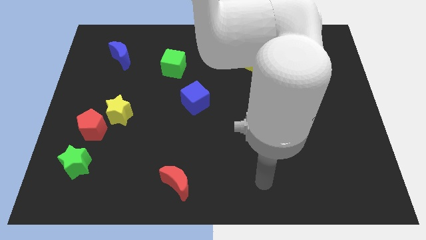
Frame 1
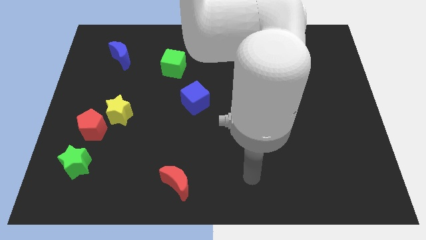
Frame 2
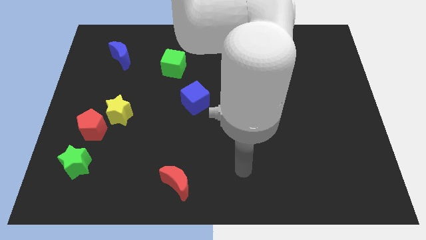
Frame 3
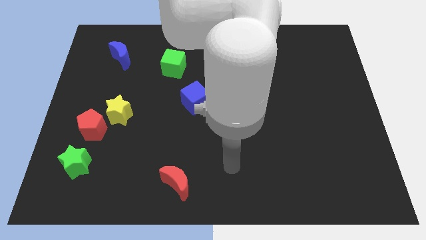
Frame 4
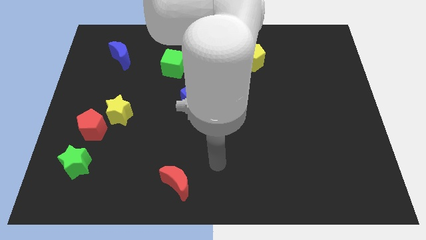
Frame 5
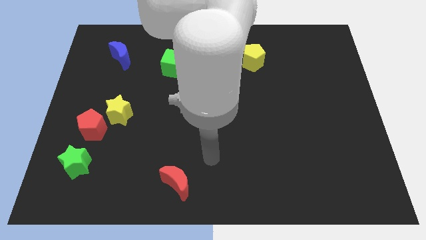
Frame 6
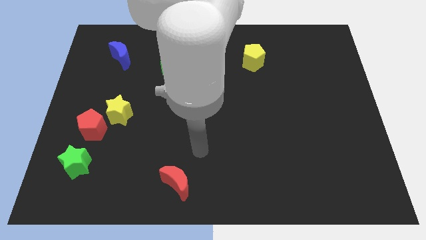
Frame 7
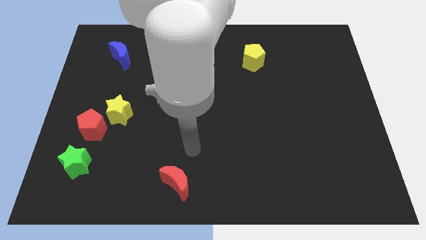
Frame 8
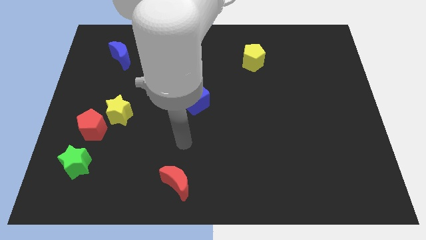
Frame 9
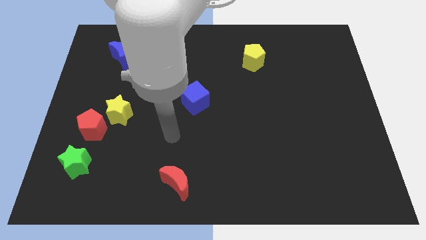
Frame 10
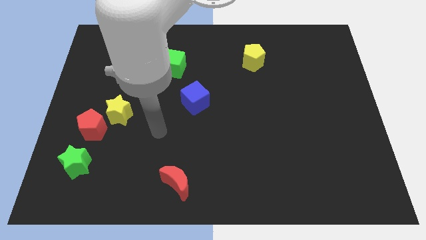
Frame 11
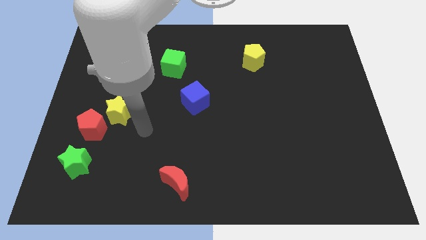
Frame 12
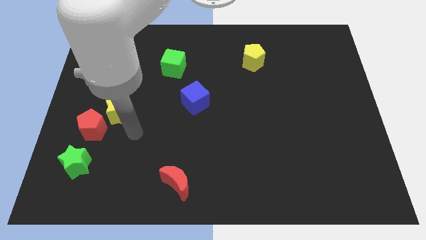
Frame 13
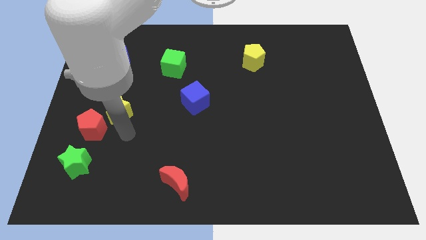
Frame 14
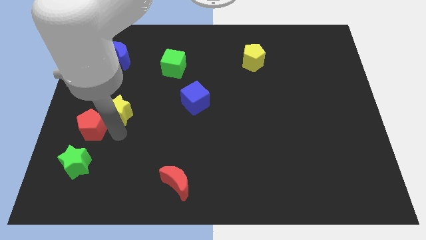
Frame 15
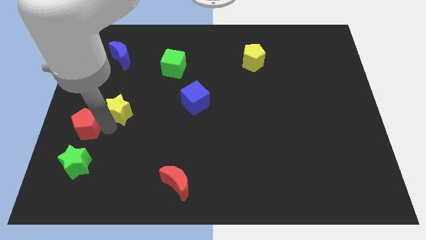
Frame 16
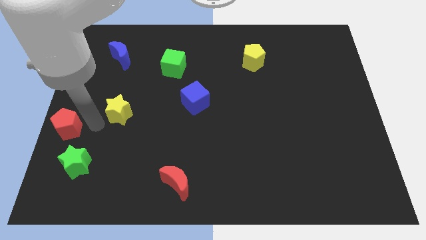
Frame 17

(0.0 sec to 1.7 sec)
pull the yellow star apart from the red pentagon

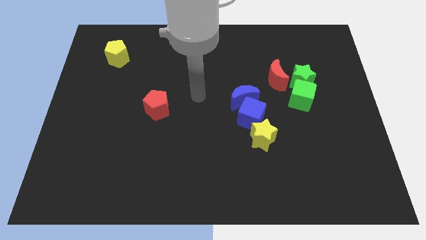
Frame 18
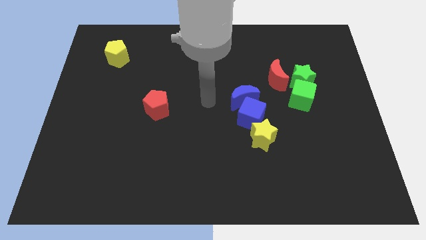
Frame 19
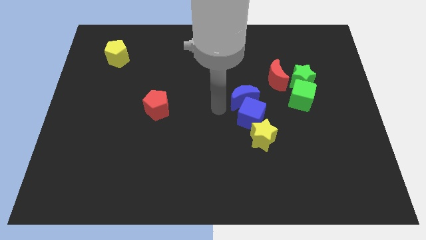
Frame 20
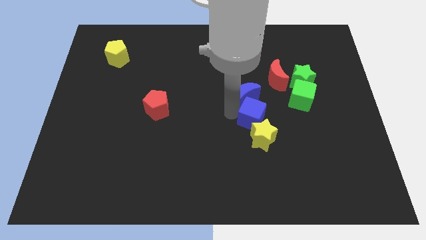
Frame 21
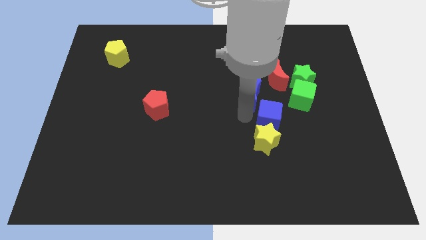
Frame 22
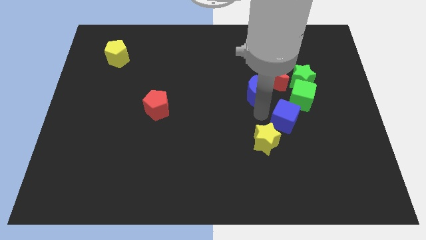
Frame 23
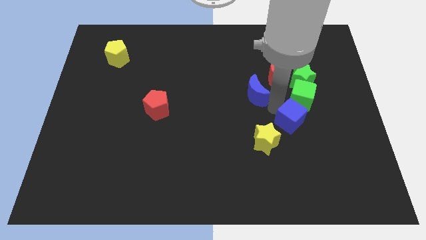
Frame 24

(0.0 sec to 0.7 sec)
pull the blue moon apart from the blue cube

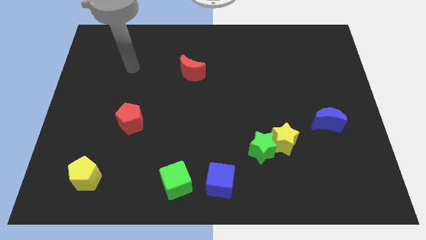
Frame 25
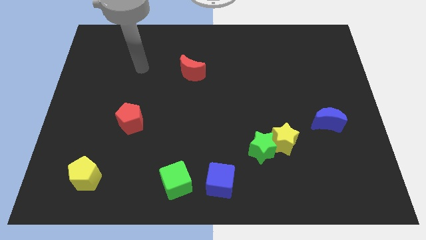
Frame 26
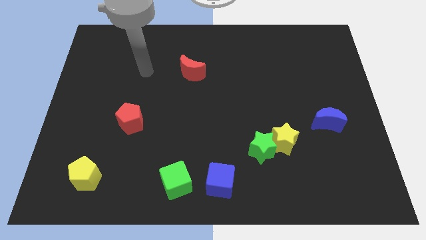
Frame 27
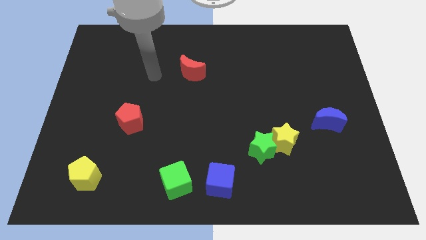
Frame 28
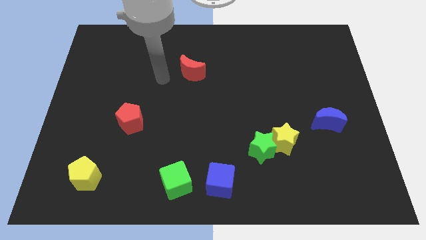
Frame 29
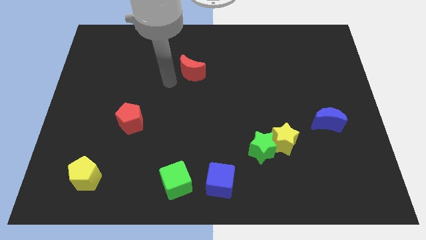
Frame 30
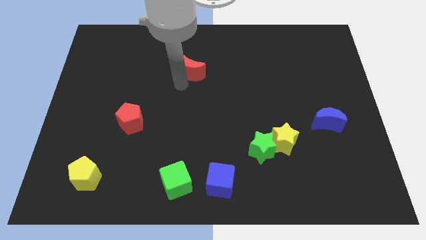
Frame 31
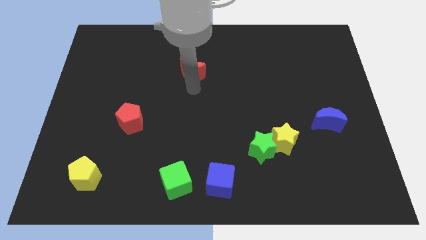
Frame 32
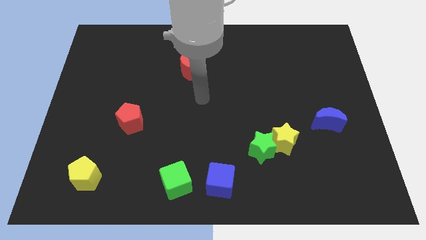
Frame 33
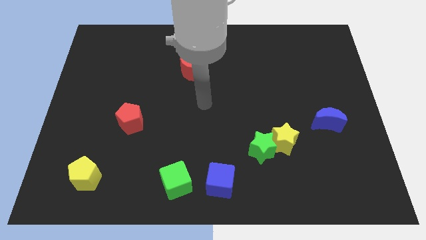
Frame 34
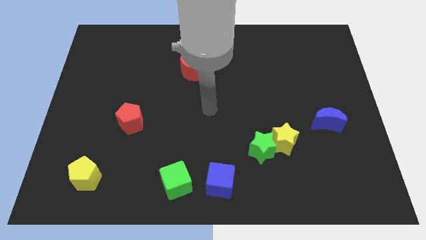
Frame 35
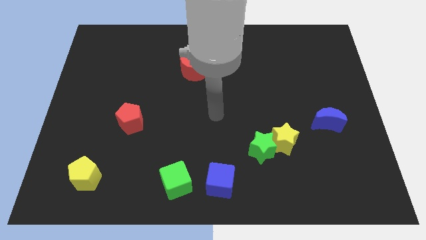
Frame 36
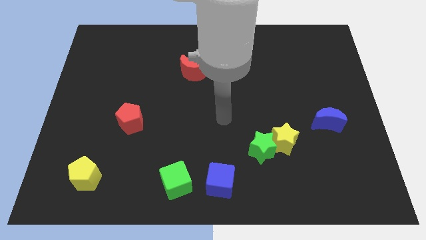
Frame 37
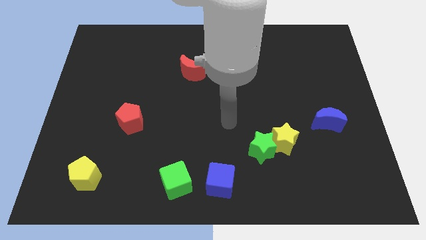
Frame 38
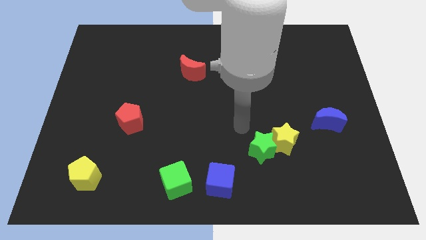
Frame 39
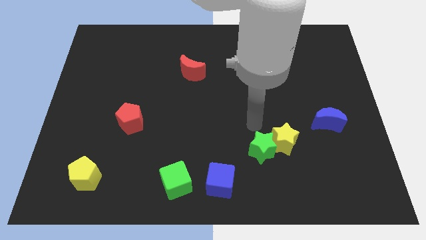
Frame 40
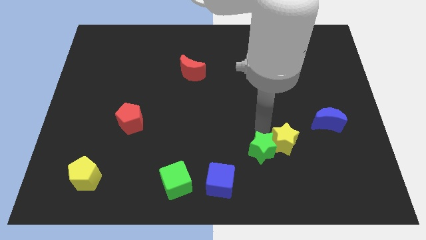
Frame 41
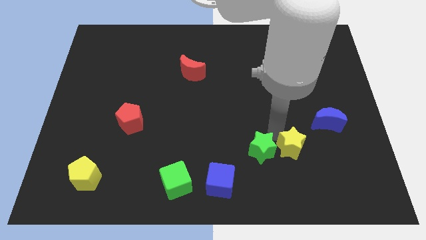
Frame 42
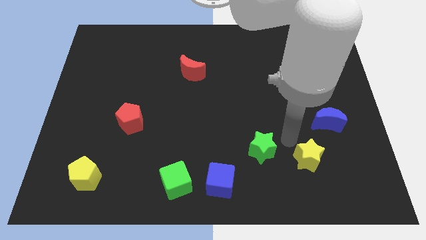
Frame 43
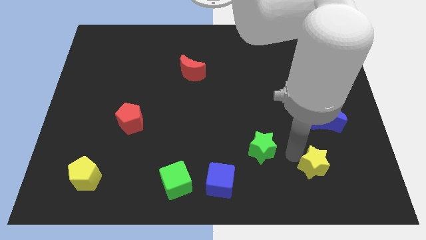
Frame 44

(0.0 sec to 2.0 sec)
move the green star away from the yellow star

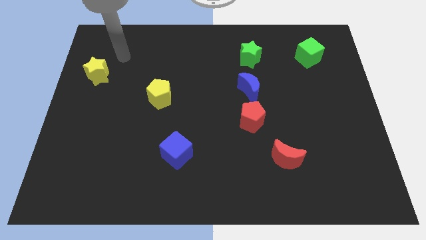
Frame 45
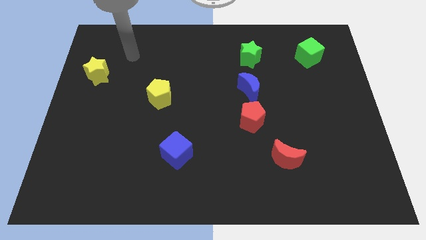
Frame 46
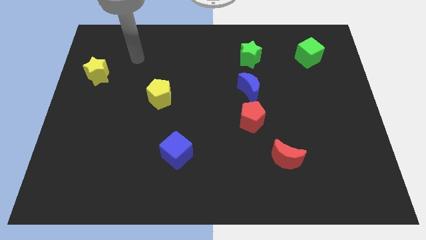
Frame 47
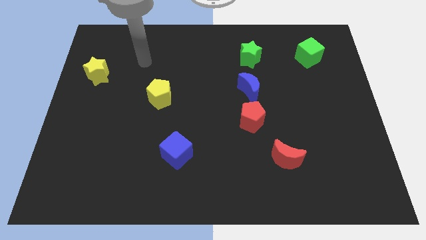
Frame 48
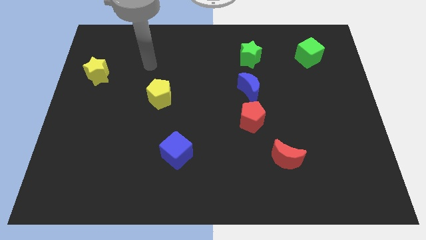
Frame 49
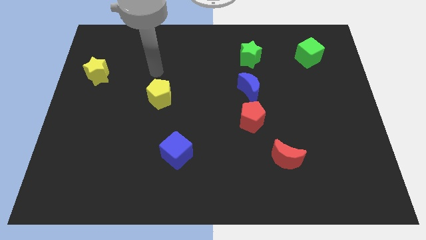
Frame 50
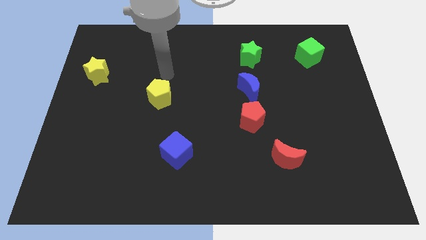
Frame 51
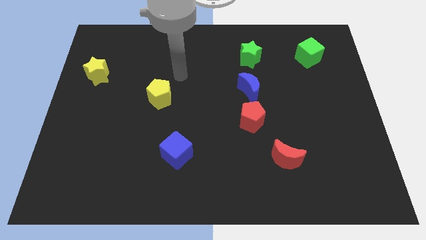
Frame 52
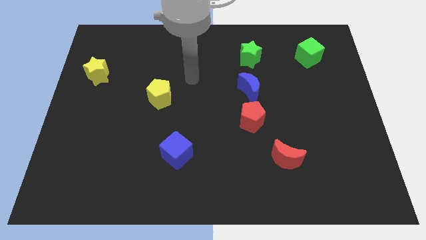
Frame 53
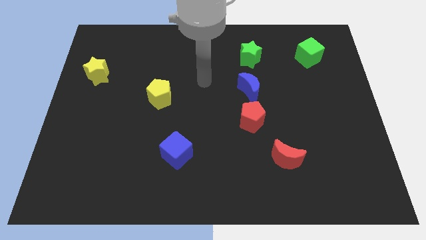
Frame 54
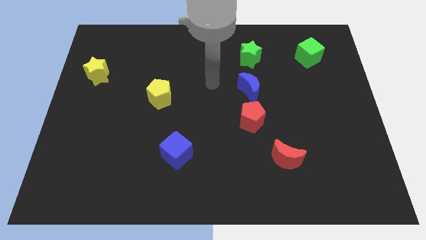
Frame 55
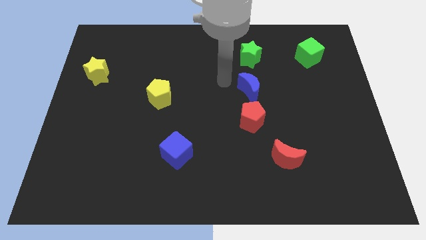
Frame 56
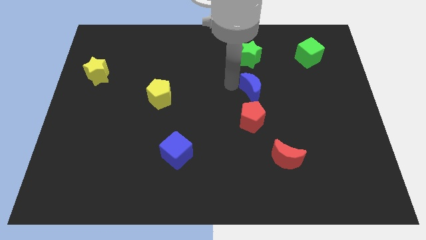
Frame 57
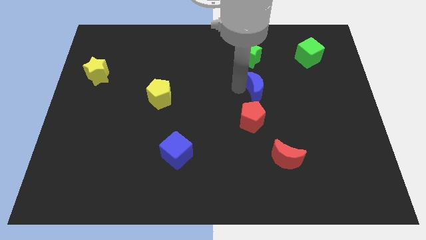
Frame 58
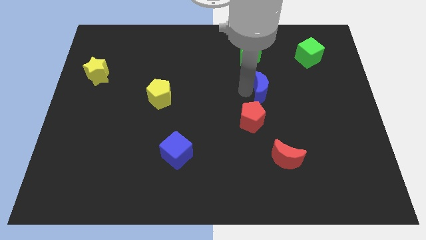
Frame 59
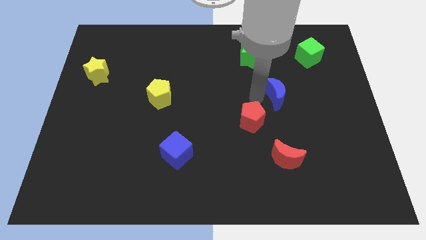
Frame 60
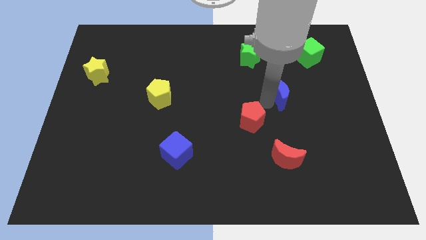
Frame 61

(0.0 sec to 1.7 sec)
move the red pentagon away from the blue moon

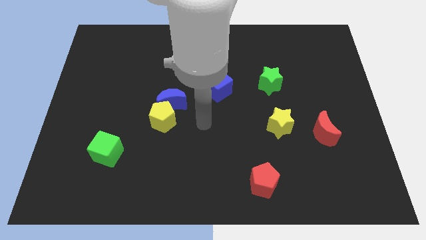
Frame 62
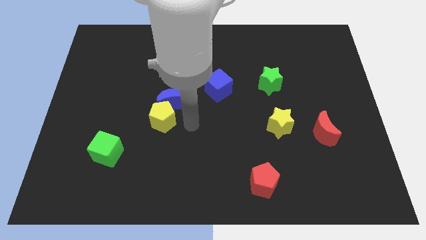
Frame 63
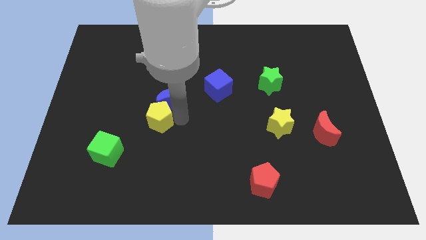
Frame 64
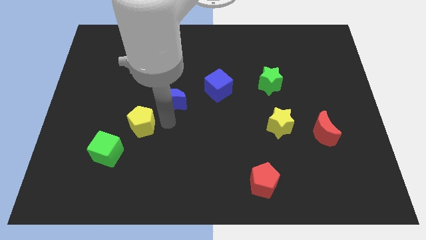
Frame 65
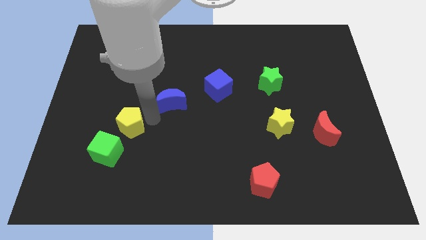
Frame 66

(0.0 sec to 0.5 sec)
separate the blue moon from the yellow pentagon

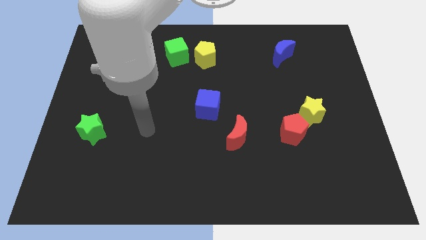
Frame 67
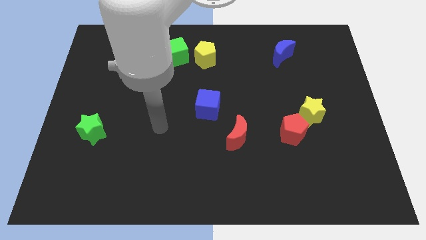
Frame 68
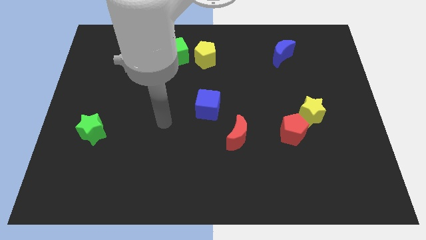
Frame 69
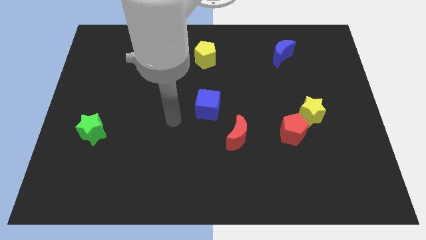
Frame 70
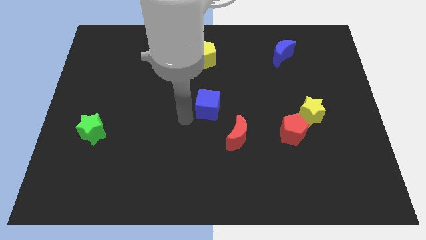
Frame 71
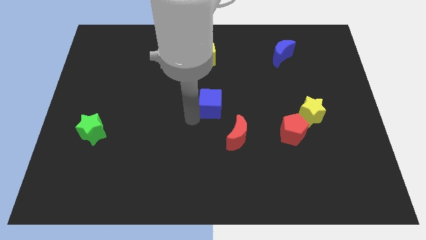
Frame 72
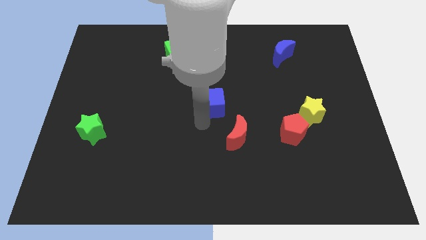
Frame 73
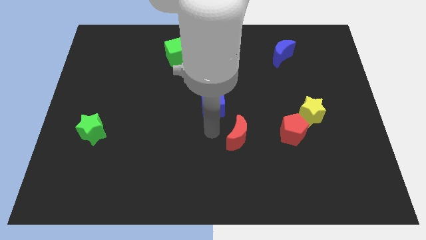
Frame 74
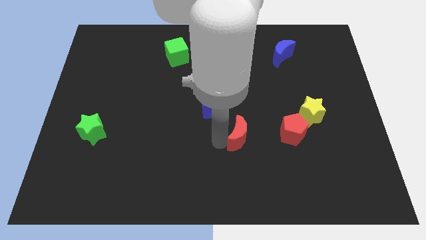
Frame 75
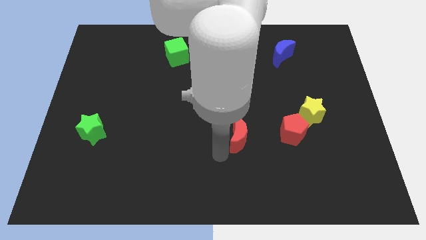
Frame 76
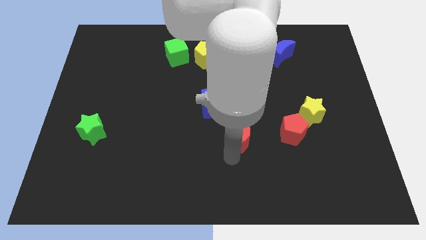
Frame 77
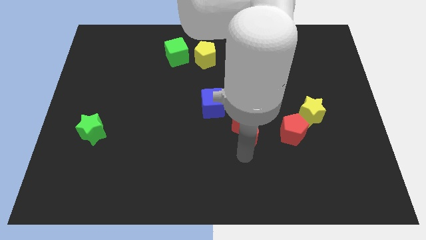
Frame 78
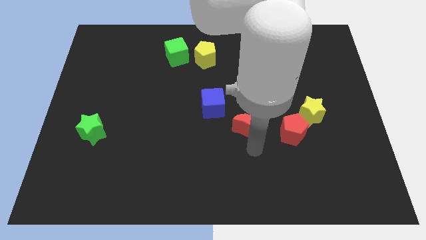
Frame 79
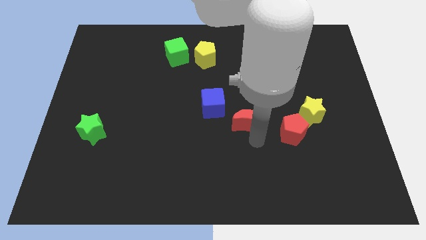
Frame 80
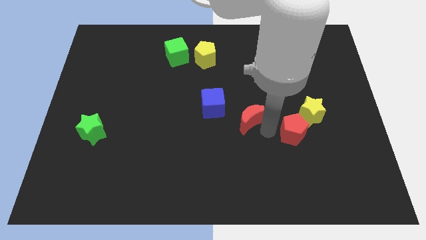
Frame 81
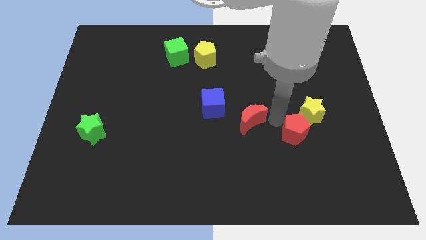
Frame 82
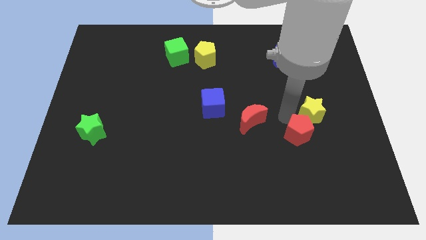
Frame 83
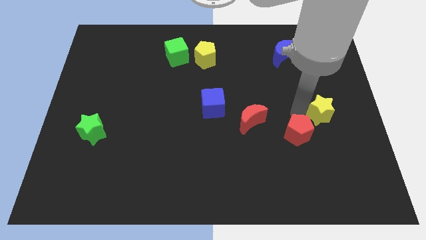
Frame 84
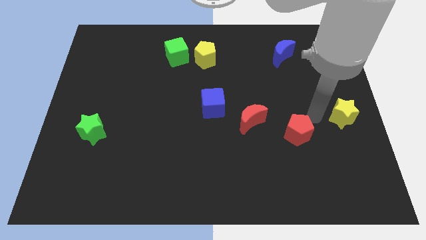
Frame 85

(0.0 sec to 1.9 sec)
pull the red pentagon apart from the yellow star

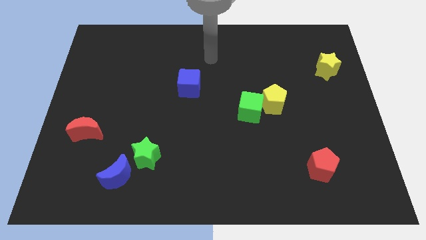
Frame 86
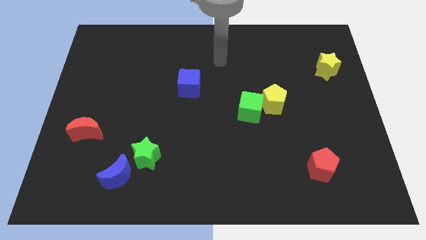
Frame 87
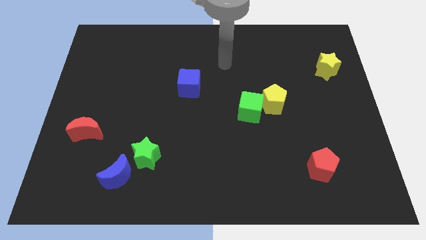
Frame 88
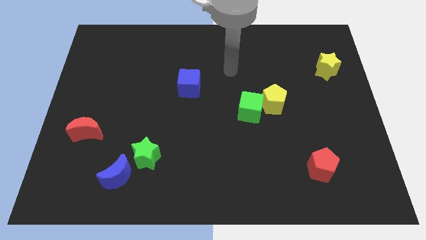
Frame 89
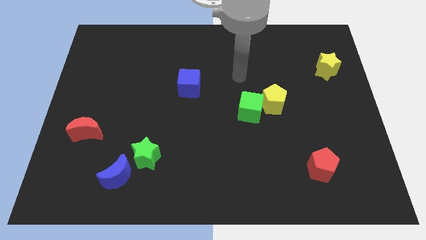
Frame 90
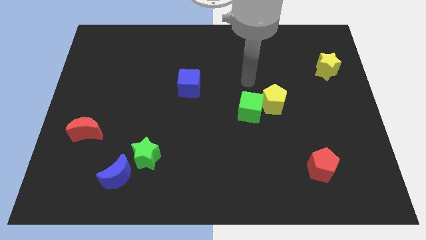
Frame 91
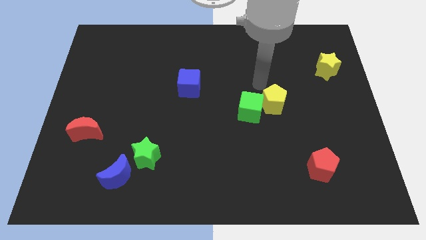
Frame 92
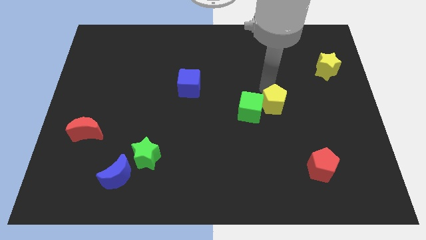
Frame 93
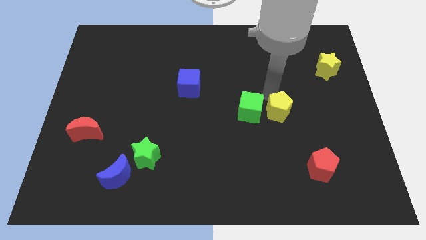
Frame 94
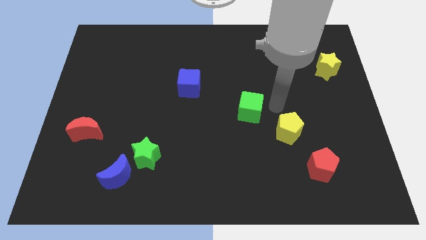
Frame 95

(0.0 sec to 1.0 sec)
move the green cube away from the yellow pentagon
